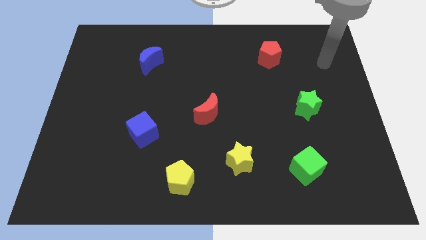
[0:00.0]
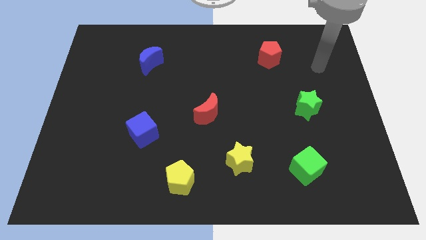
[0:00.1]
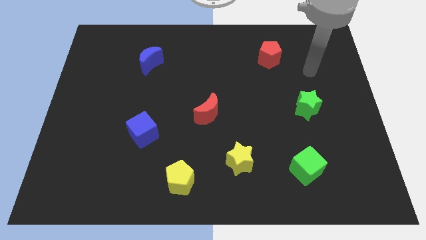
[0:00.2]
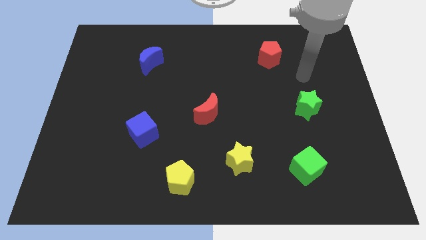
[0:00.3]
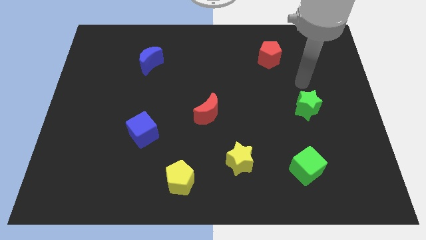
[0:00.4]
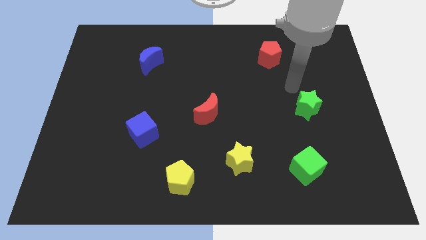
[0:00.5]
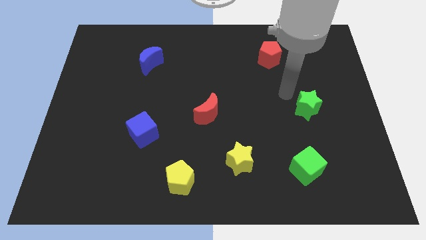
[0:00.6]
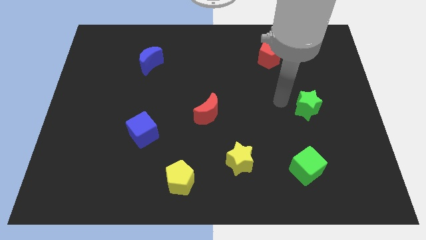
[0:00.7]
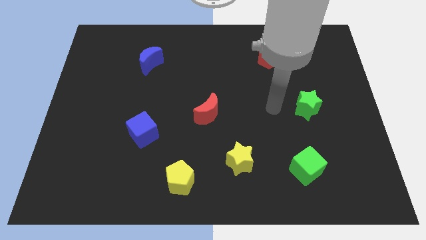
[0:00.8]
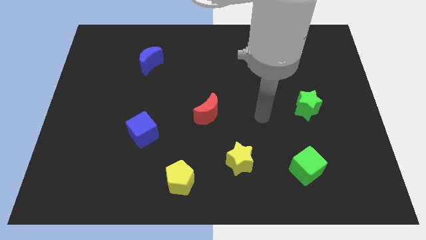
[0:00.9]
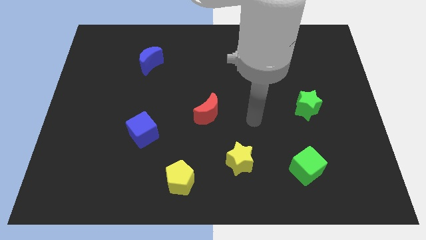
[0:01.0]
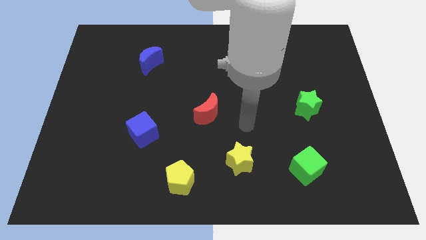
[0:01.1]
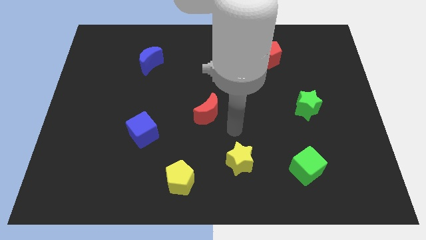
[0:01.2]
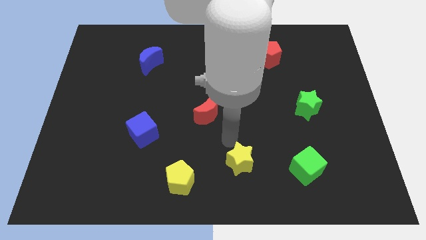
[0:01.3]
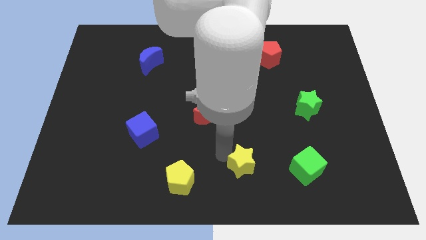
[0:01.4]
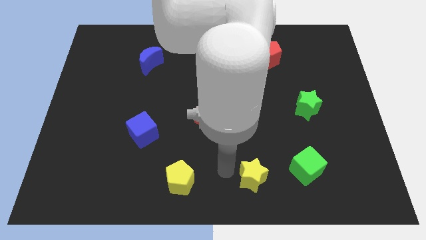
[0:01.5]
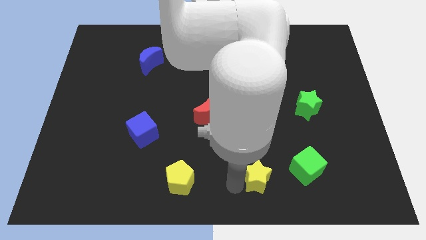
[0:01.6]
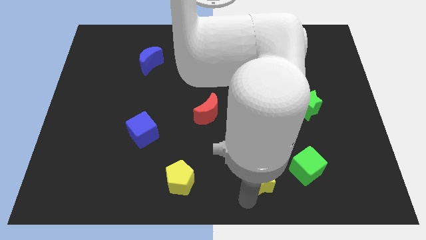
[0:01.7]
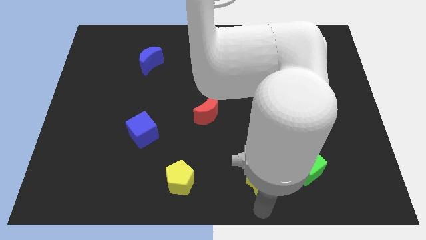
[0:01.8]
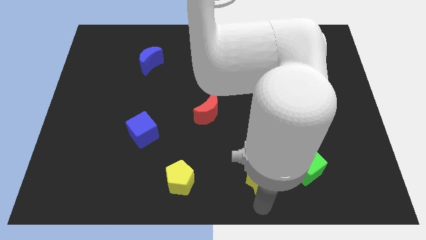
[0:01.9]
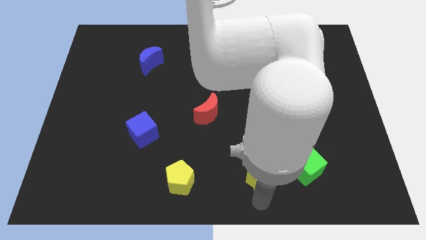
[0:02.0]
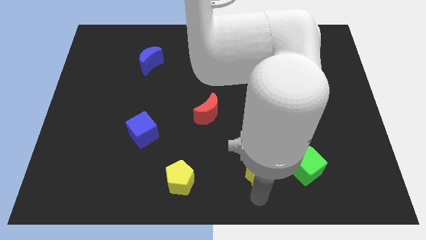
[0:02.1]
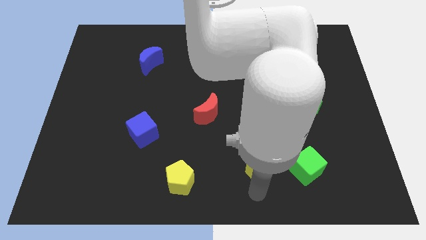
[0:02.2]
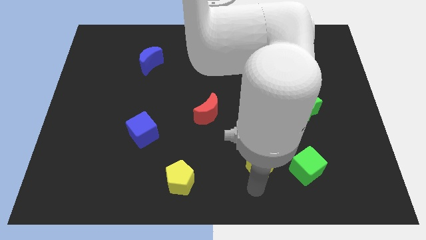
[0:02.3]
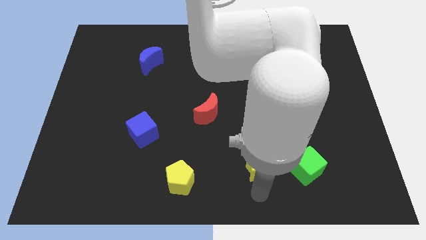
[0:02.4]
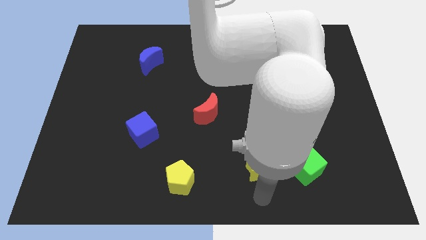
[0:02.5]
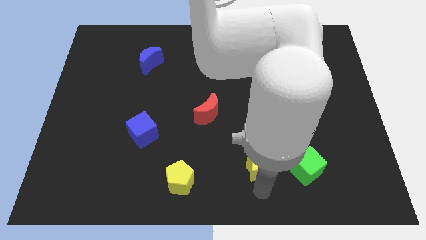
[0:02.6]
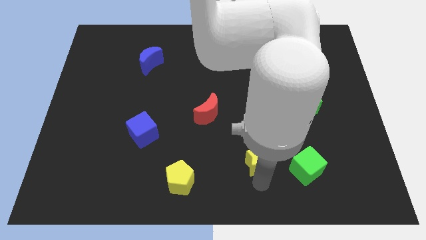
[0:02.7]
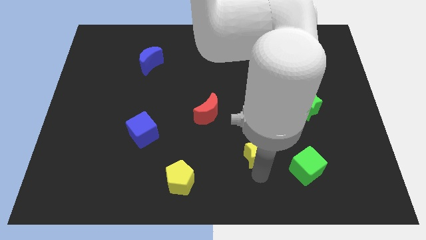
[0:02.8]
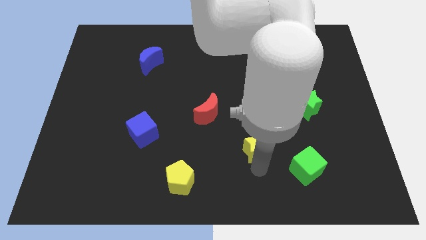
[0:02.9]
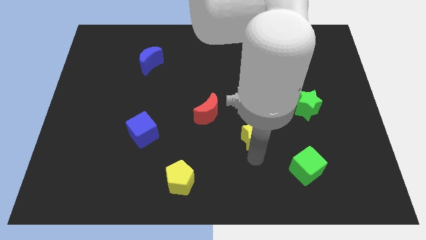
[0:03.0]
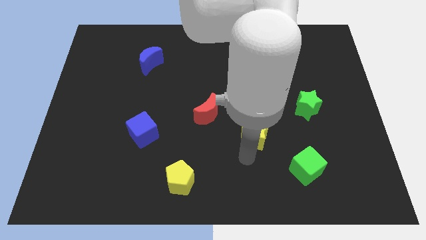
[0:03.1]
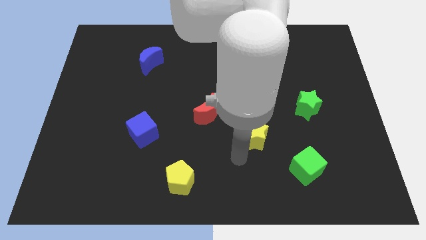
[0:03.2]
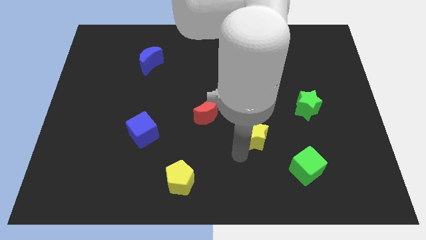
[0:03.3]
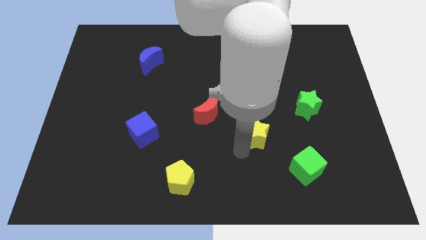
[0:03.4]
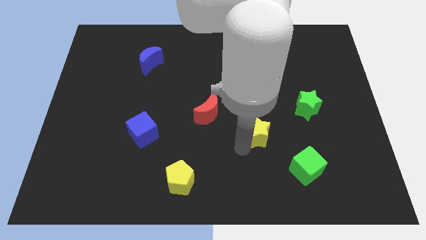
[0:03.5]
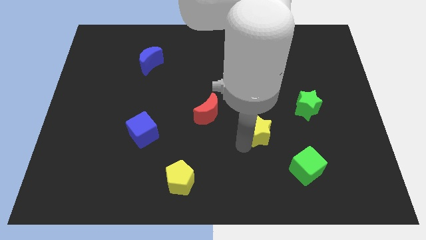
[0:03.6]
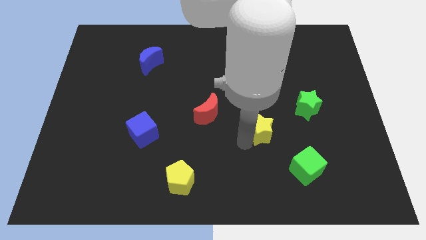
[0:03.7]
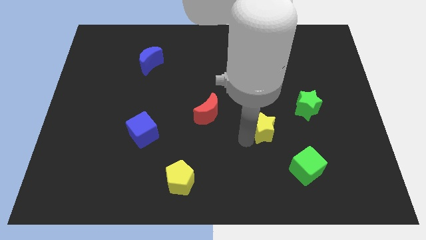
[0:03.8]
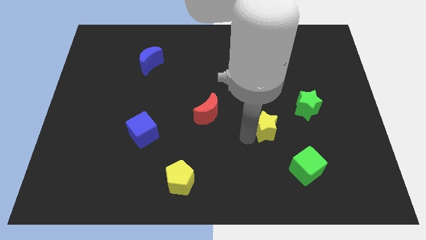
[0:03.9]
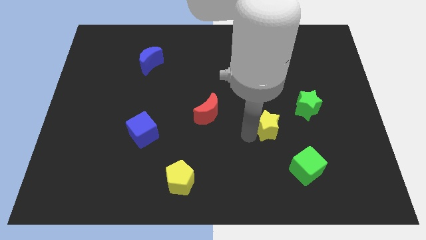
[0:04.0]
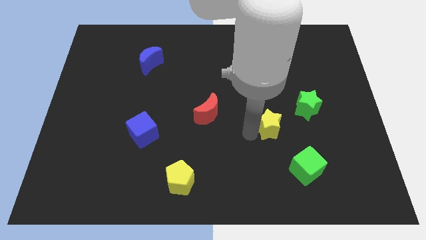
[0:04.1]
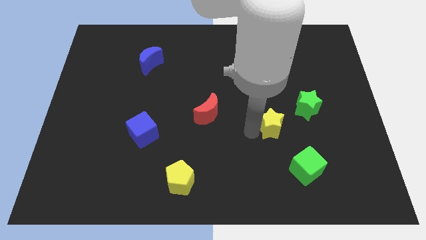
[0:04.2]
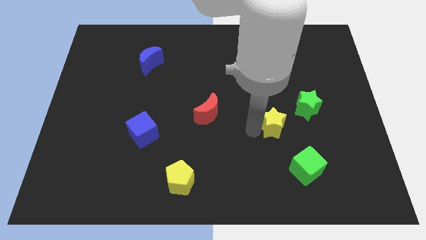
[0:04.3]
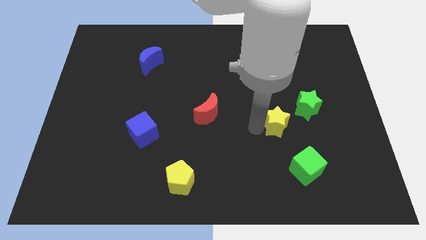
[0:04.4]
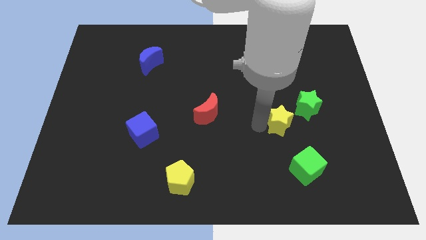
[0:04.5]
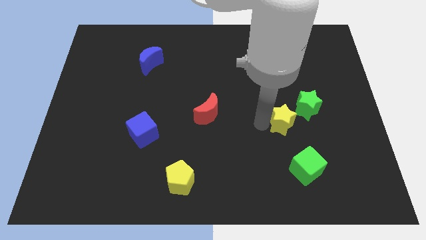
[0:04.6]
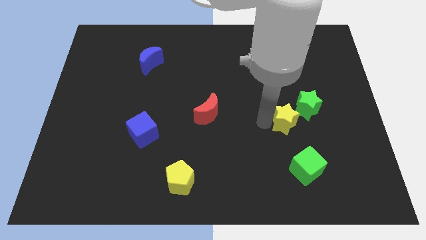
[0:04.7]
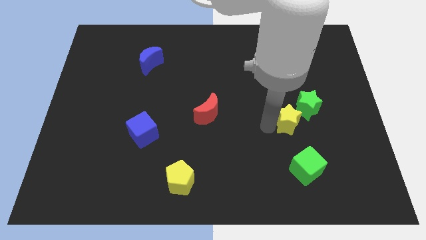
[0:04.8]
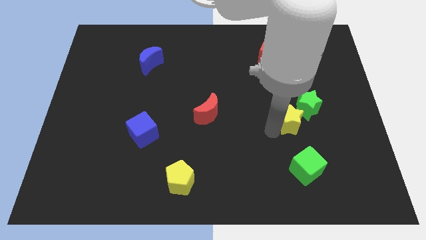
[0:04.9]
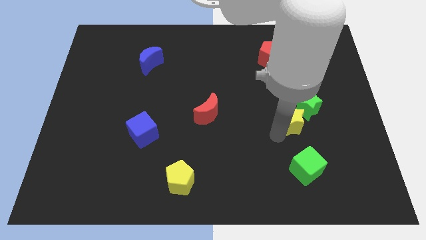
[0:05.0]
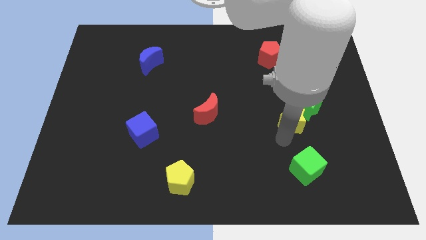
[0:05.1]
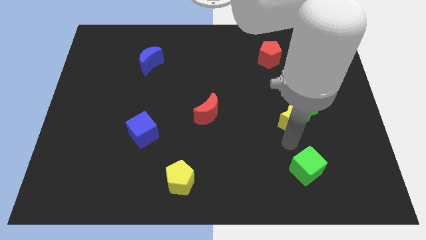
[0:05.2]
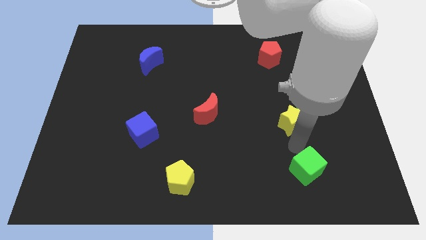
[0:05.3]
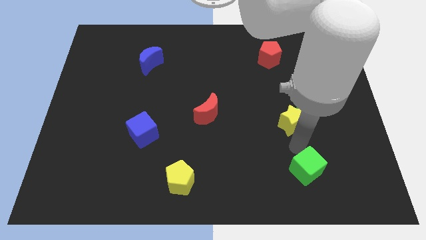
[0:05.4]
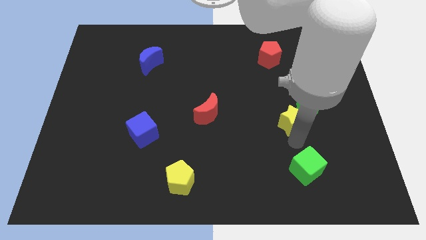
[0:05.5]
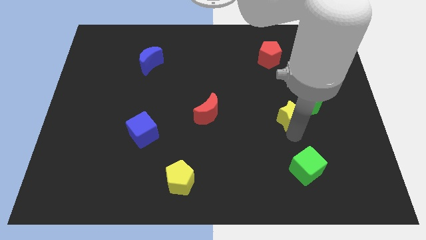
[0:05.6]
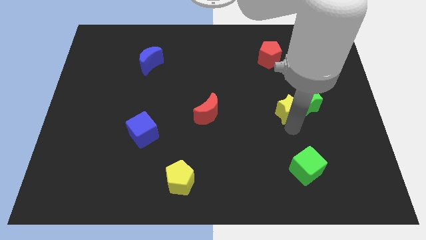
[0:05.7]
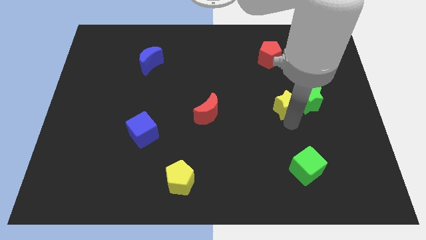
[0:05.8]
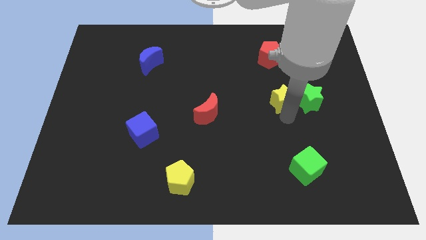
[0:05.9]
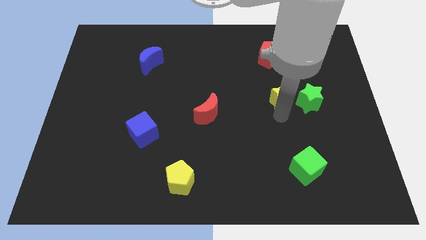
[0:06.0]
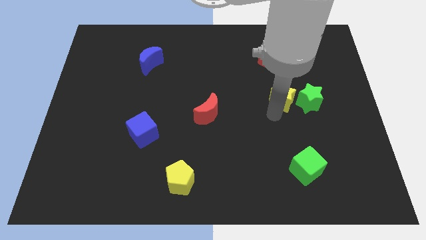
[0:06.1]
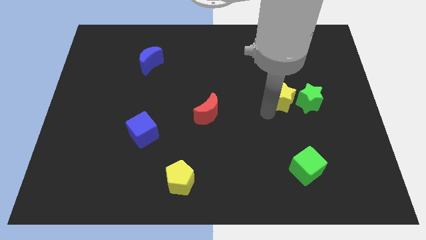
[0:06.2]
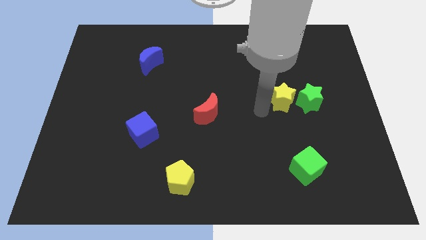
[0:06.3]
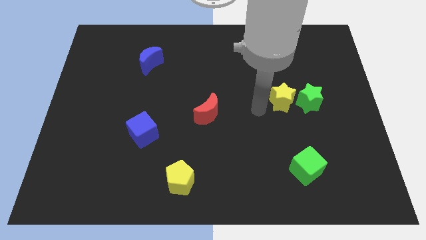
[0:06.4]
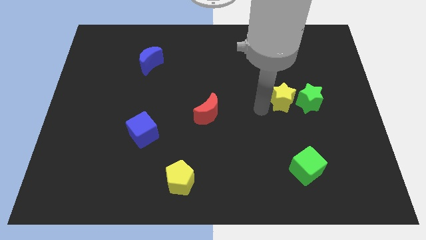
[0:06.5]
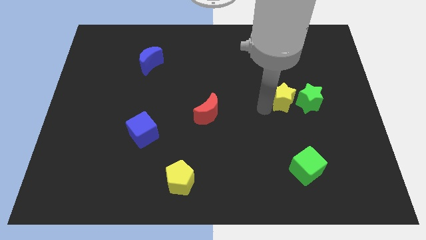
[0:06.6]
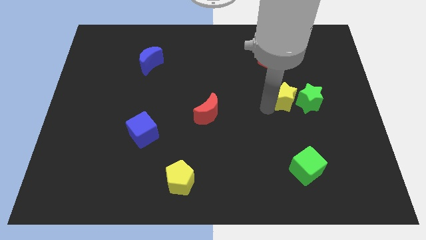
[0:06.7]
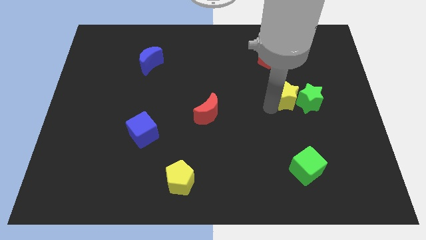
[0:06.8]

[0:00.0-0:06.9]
move the yellow star upwards and to the right diagonally

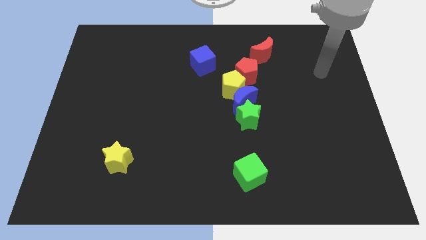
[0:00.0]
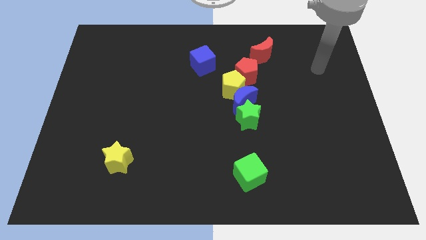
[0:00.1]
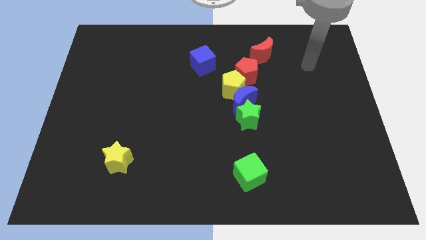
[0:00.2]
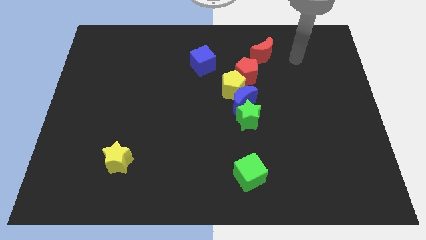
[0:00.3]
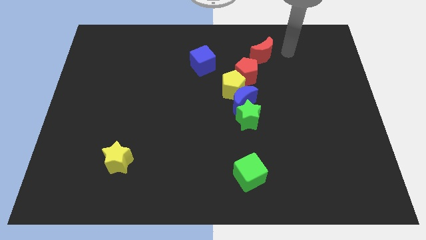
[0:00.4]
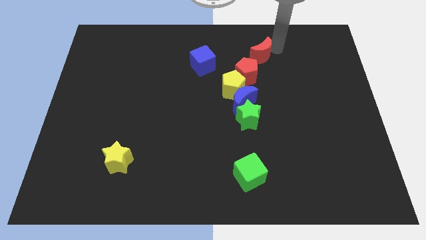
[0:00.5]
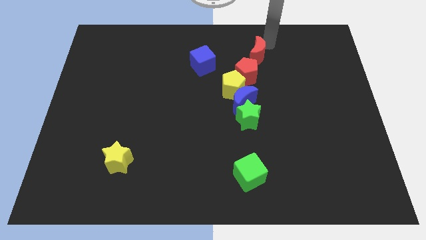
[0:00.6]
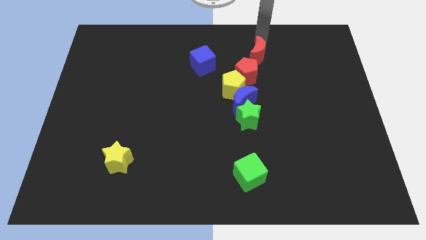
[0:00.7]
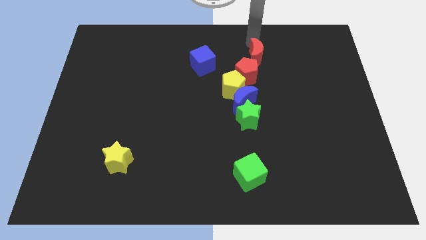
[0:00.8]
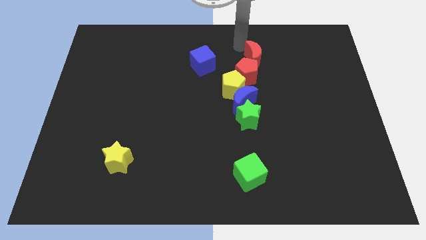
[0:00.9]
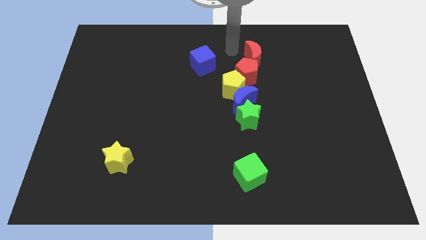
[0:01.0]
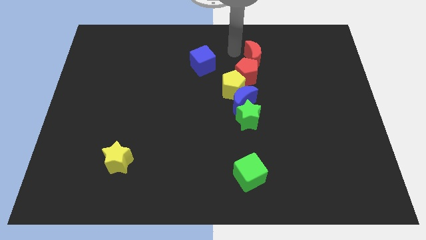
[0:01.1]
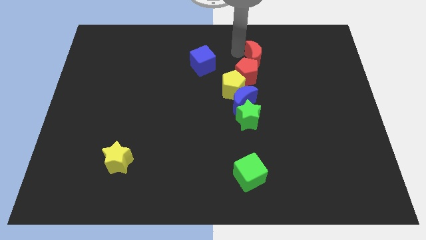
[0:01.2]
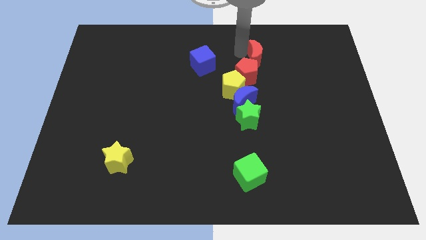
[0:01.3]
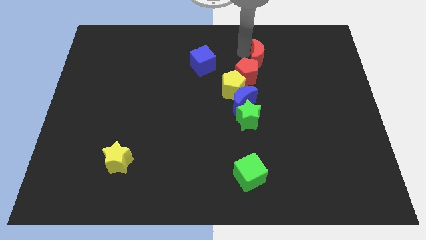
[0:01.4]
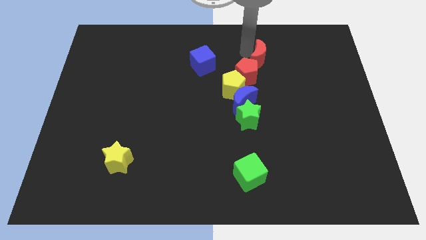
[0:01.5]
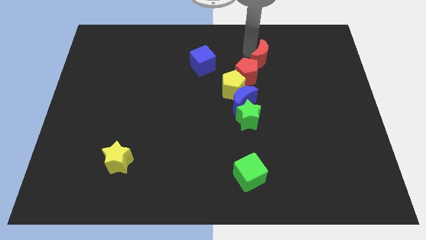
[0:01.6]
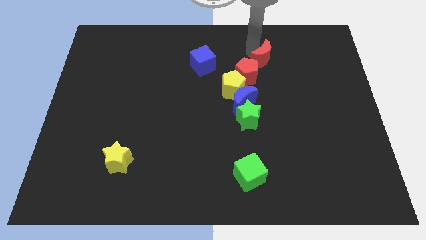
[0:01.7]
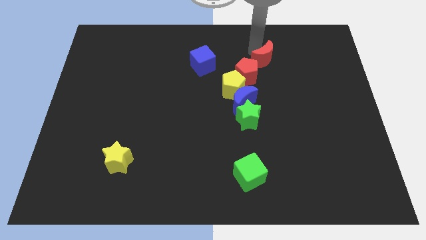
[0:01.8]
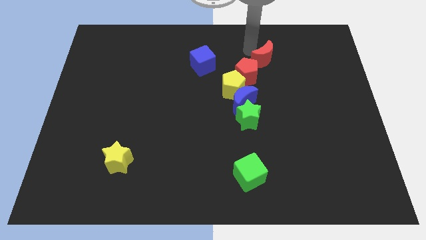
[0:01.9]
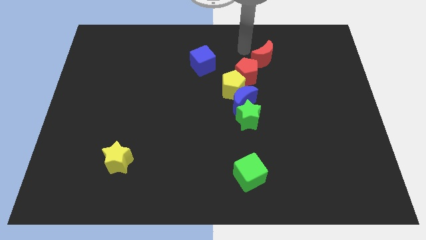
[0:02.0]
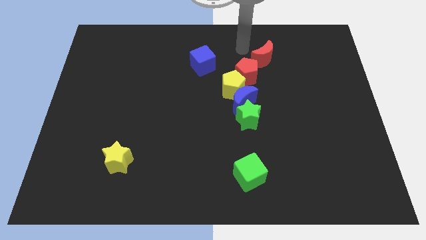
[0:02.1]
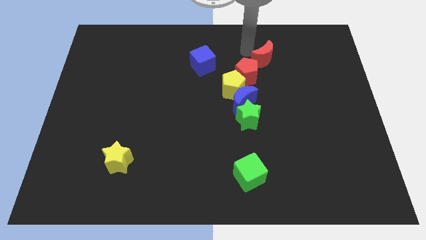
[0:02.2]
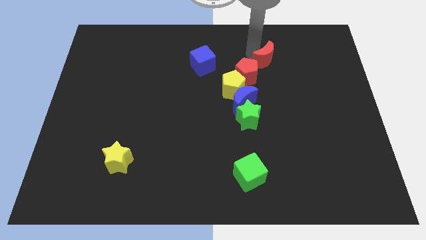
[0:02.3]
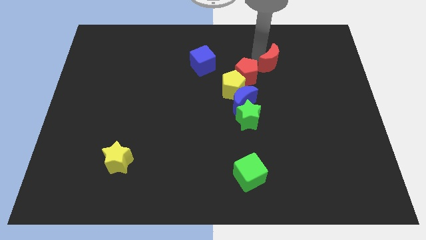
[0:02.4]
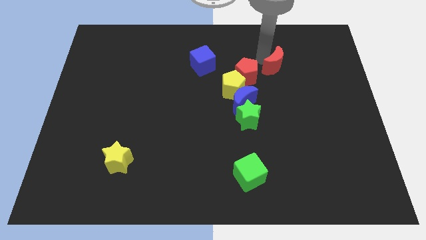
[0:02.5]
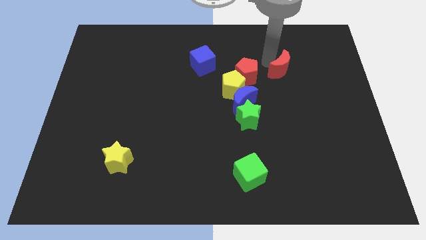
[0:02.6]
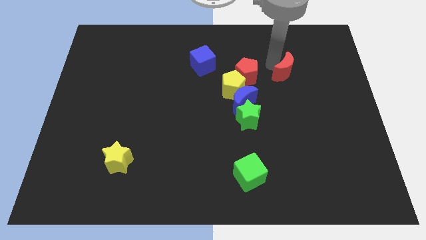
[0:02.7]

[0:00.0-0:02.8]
slide the red moon diagonally downwards and right slightly
